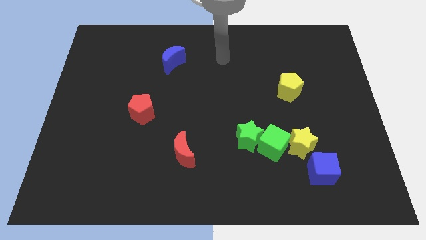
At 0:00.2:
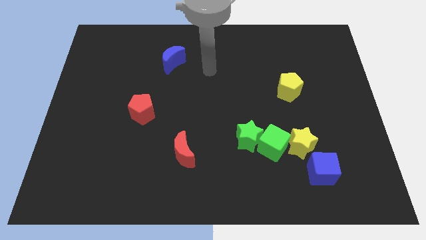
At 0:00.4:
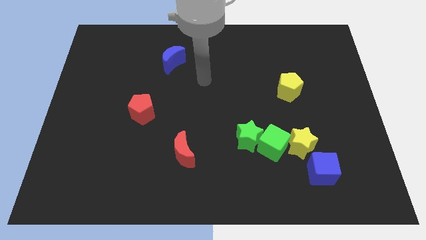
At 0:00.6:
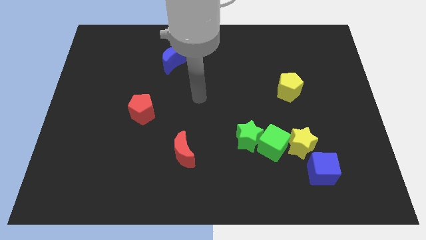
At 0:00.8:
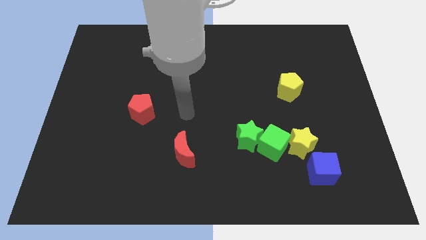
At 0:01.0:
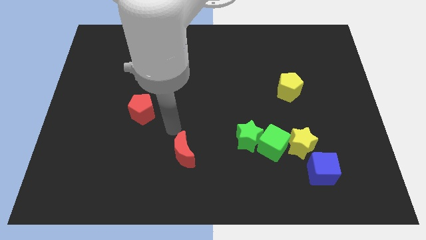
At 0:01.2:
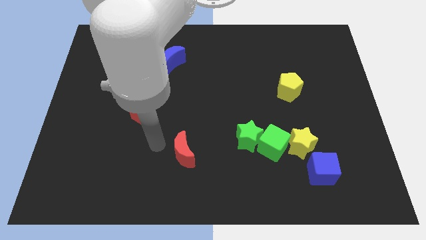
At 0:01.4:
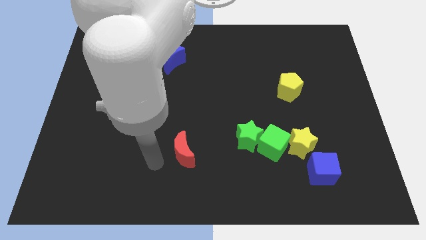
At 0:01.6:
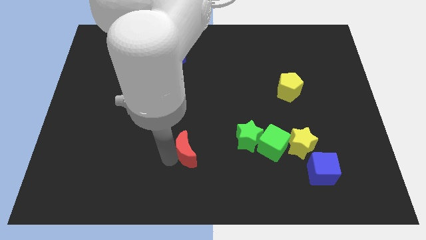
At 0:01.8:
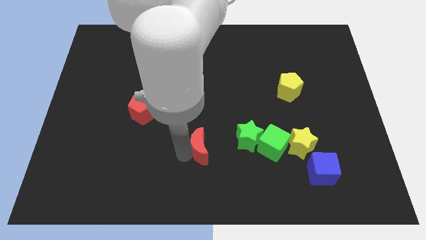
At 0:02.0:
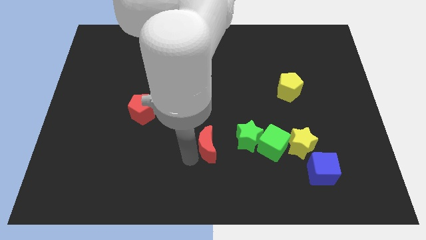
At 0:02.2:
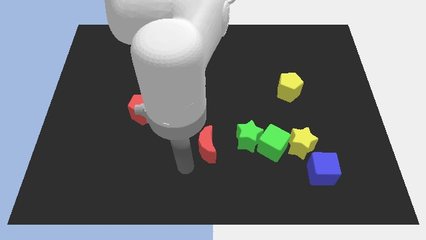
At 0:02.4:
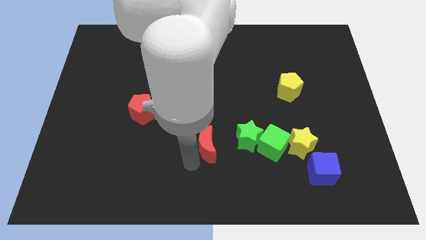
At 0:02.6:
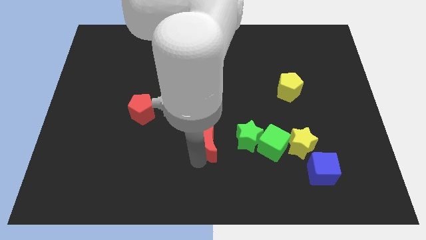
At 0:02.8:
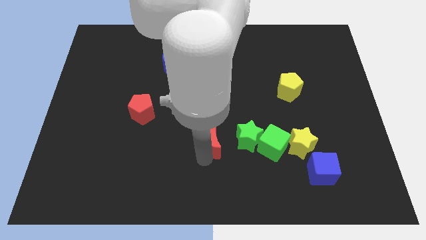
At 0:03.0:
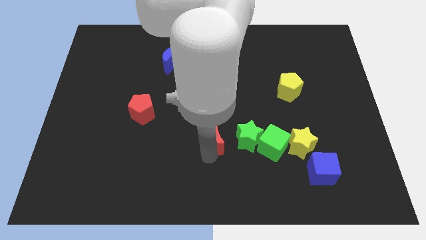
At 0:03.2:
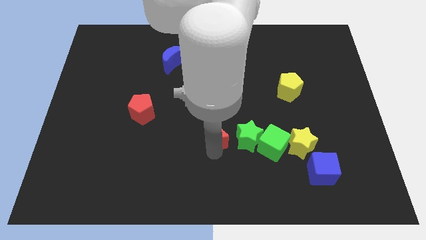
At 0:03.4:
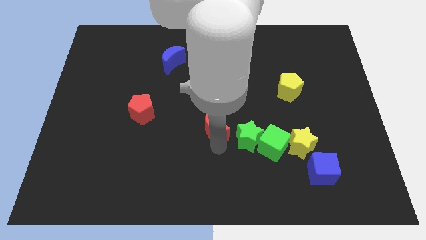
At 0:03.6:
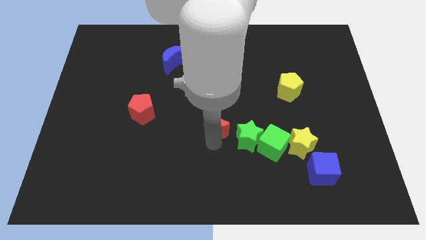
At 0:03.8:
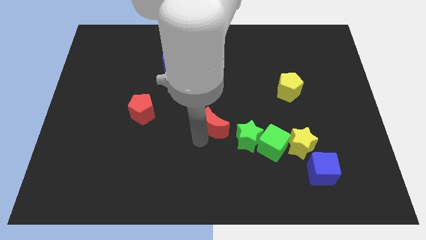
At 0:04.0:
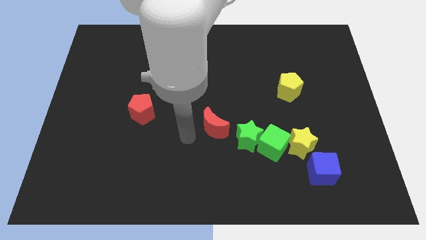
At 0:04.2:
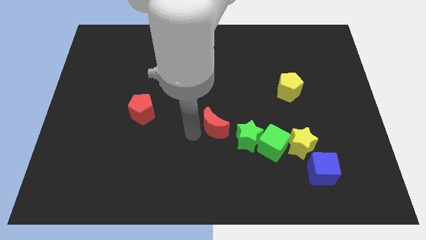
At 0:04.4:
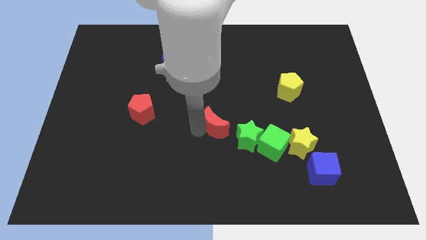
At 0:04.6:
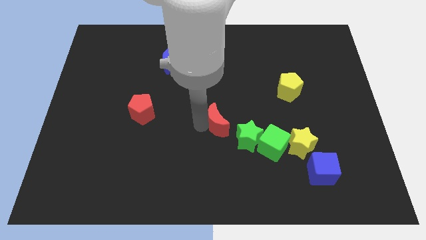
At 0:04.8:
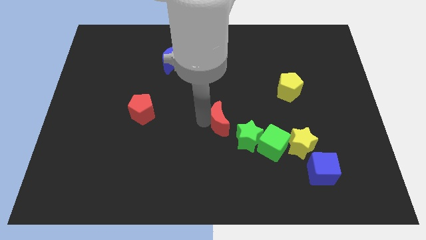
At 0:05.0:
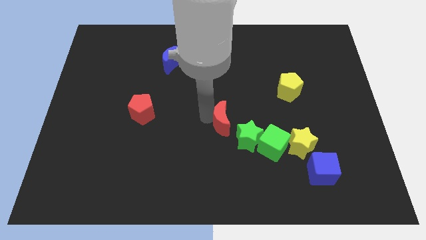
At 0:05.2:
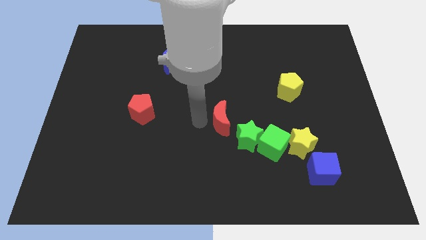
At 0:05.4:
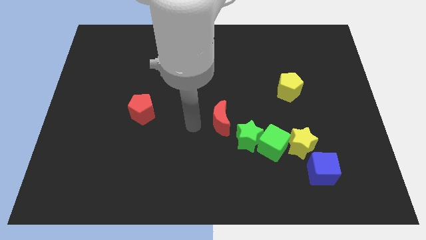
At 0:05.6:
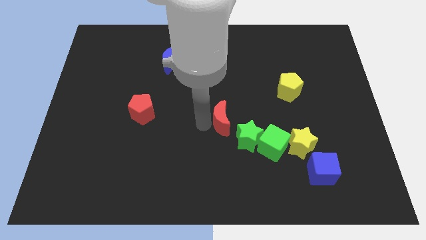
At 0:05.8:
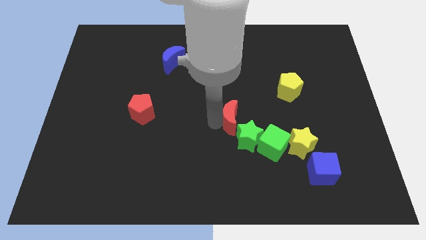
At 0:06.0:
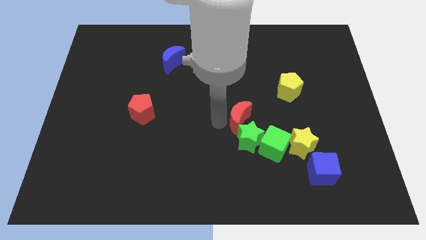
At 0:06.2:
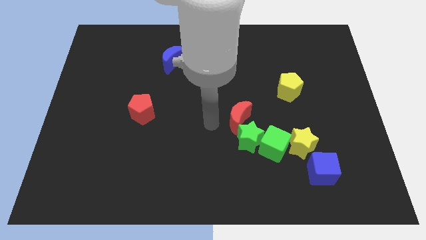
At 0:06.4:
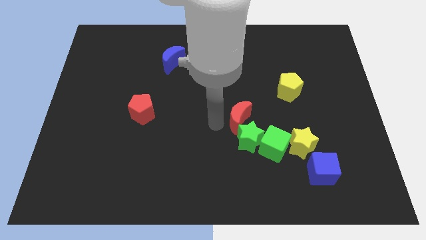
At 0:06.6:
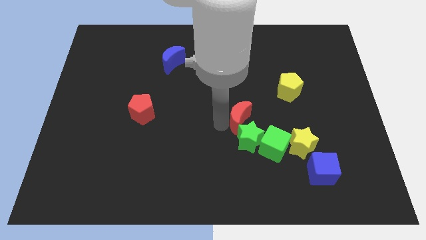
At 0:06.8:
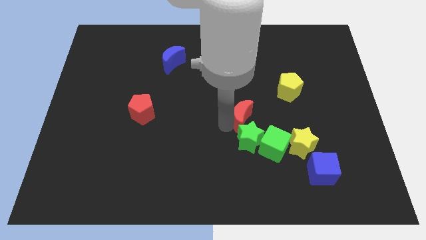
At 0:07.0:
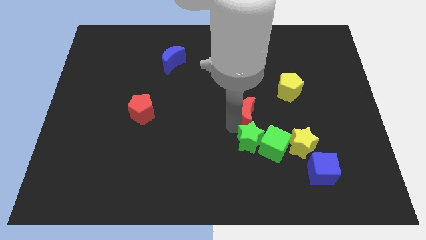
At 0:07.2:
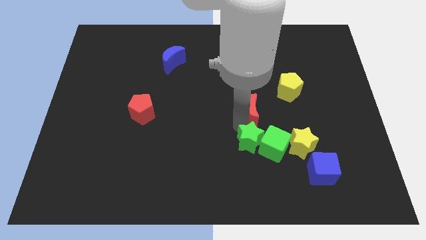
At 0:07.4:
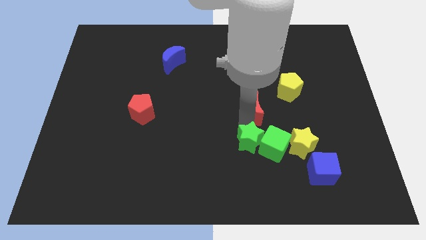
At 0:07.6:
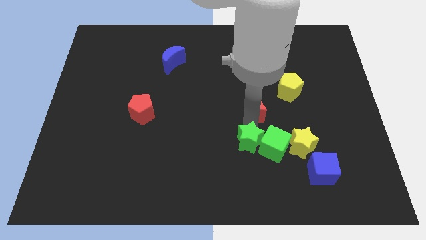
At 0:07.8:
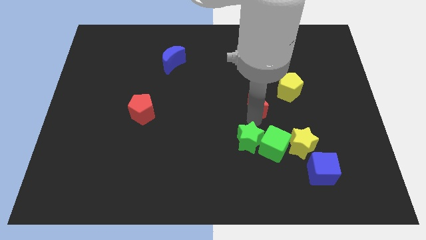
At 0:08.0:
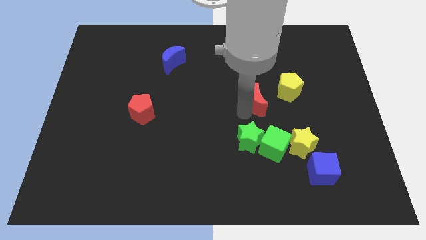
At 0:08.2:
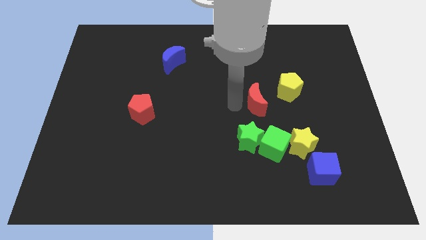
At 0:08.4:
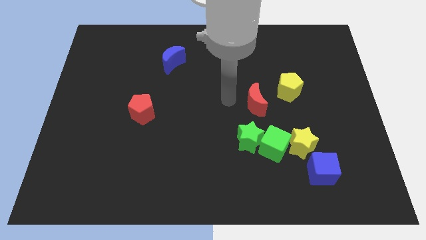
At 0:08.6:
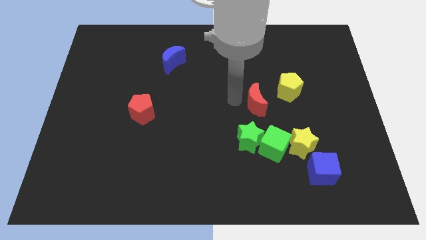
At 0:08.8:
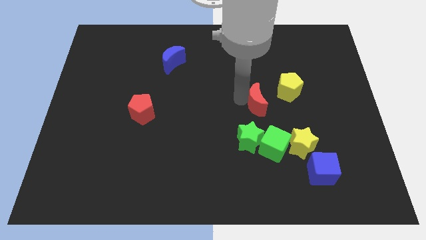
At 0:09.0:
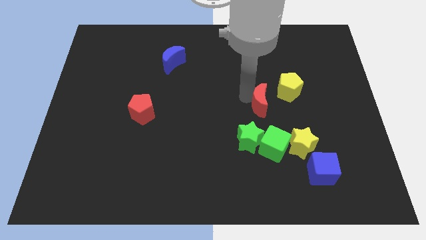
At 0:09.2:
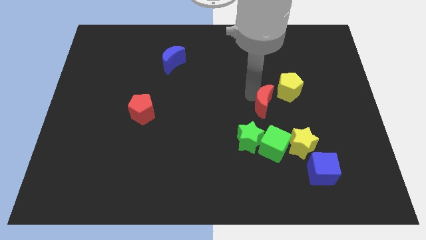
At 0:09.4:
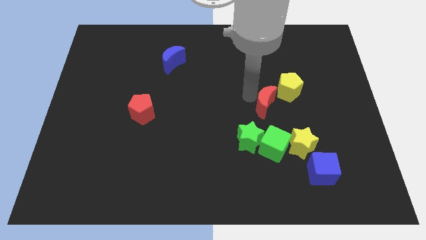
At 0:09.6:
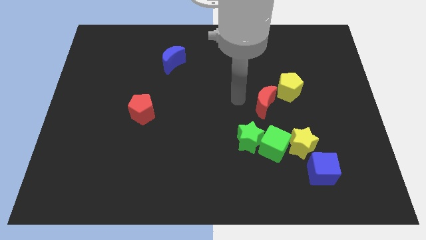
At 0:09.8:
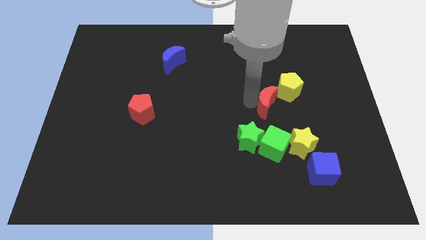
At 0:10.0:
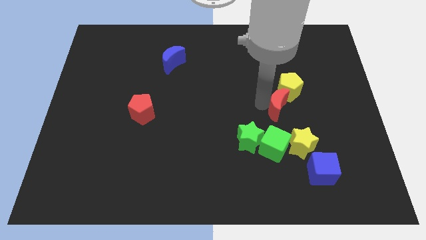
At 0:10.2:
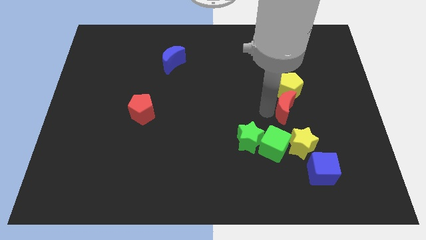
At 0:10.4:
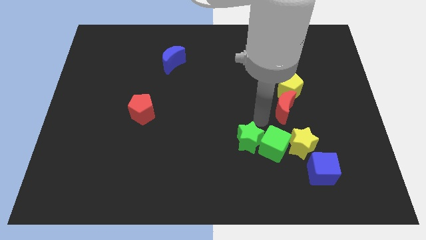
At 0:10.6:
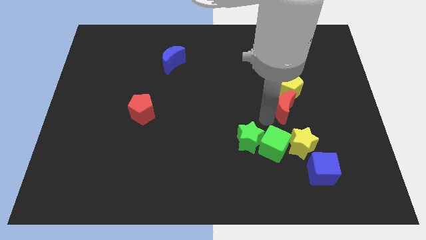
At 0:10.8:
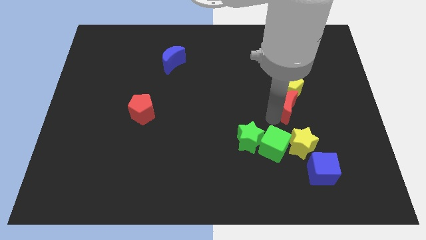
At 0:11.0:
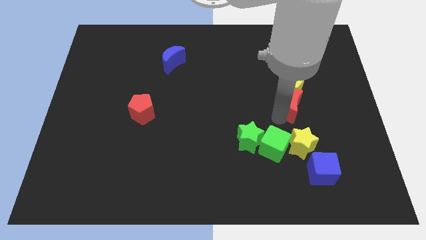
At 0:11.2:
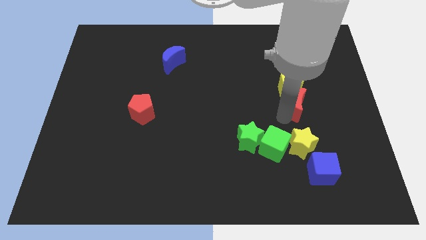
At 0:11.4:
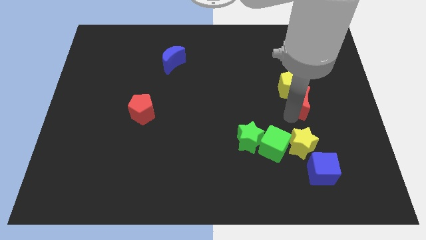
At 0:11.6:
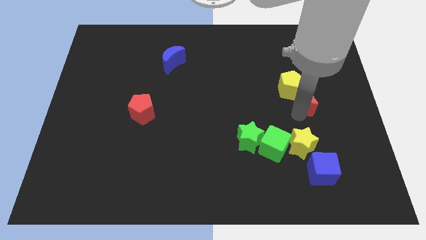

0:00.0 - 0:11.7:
push the red moon to the right side of the yellow pentagon

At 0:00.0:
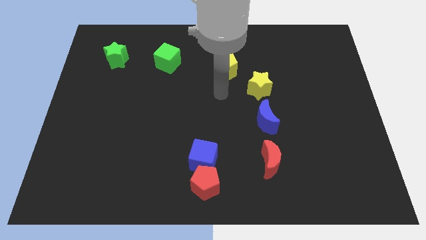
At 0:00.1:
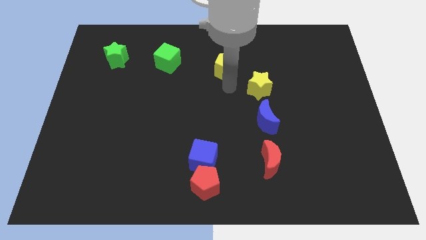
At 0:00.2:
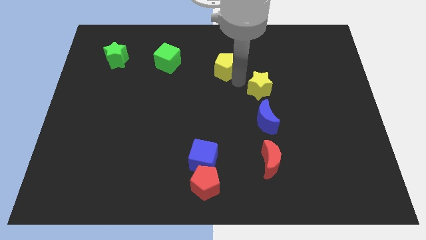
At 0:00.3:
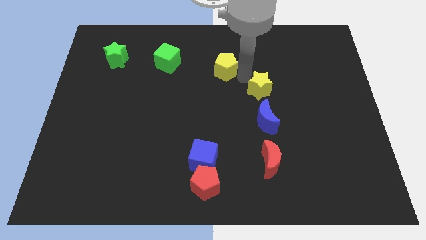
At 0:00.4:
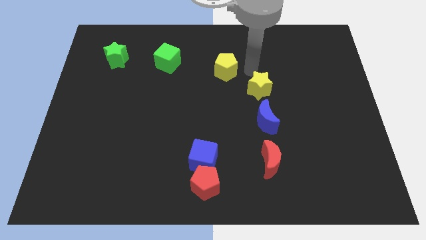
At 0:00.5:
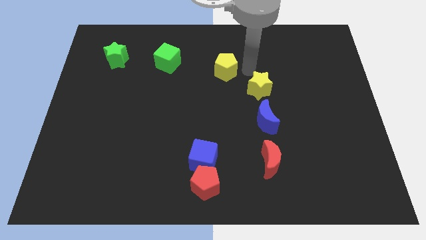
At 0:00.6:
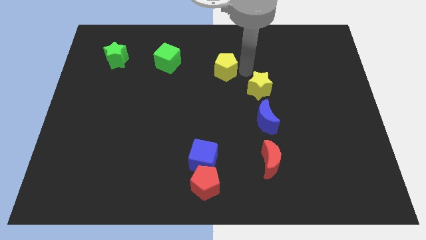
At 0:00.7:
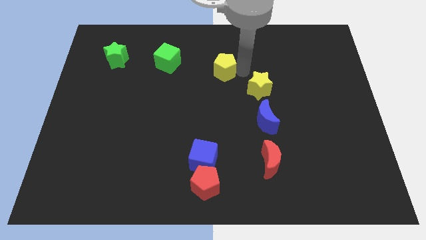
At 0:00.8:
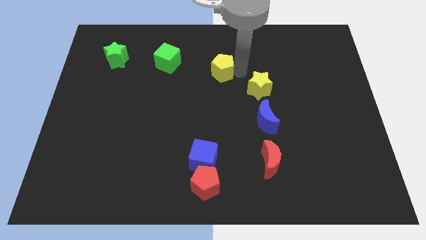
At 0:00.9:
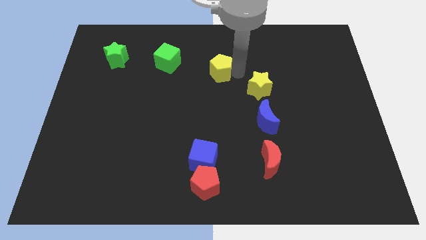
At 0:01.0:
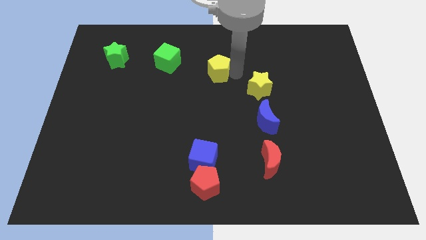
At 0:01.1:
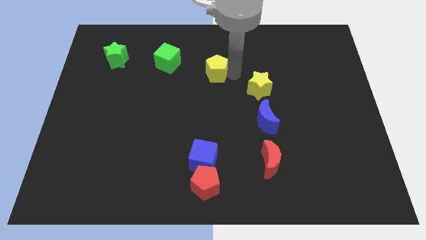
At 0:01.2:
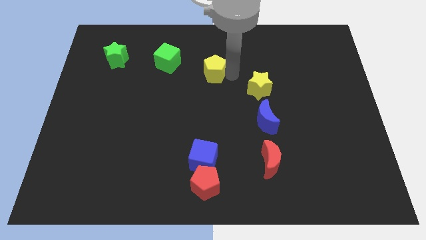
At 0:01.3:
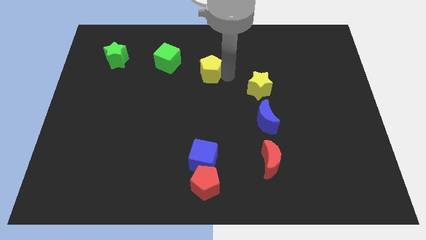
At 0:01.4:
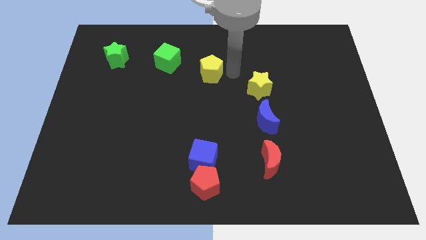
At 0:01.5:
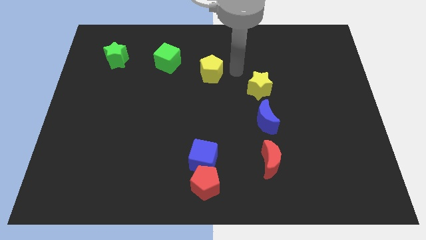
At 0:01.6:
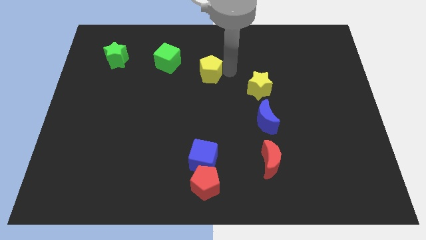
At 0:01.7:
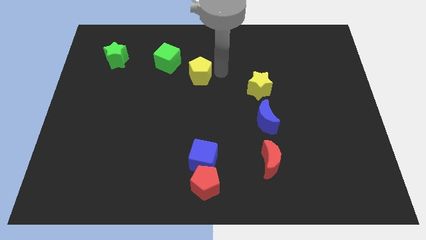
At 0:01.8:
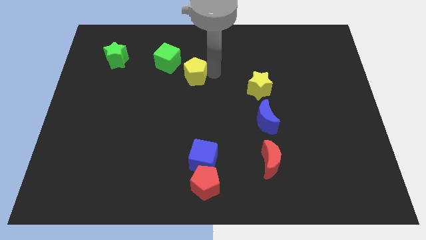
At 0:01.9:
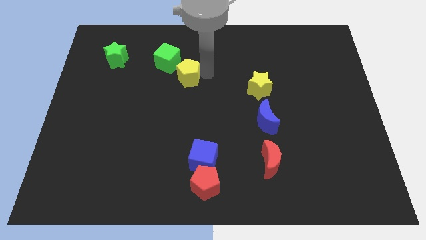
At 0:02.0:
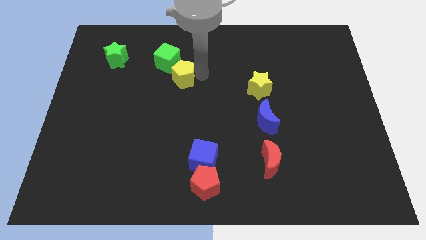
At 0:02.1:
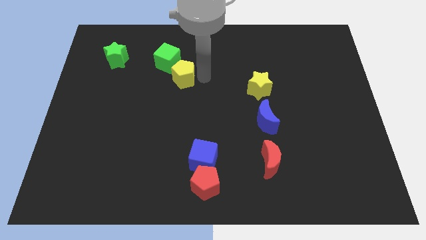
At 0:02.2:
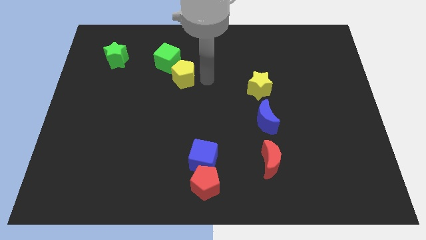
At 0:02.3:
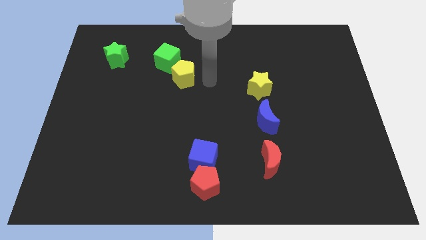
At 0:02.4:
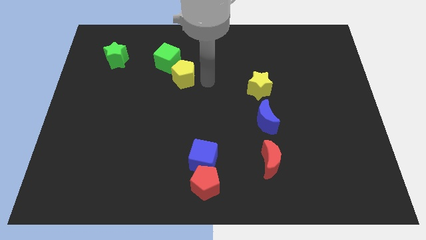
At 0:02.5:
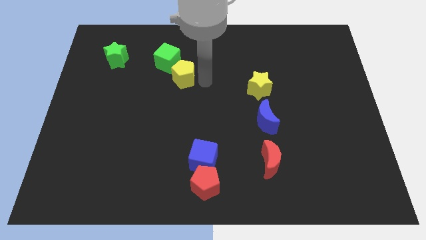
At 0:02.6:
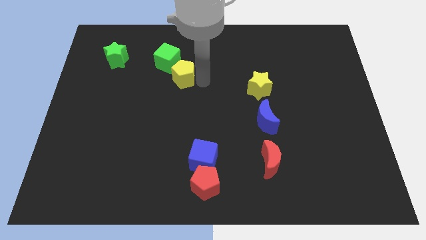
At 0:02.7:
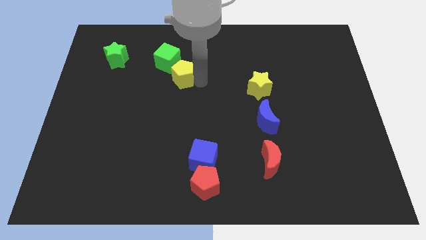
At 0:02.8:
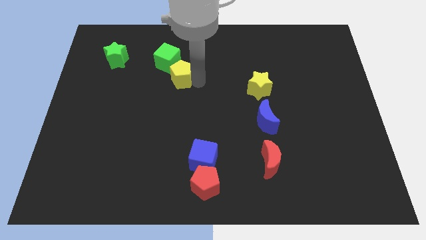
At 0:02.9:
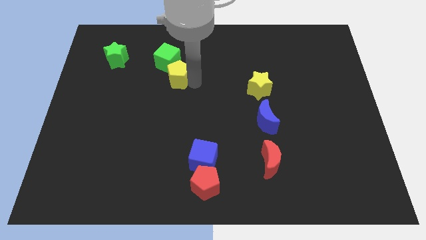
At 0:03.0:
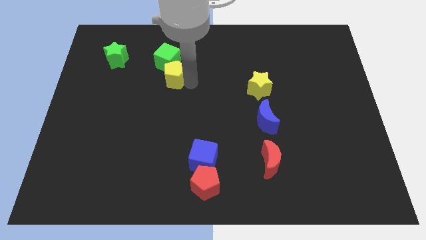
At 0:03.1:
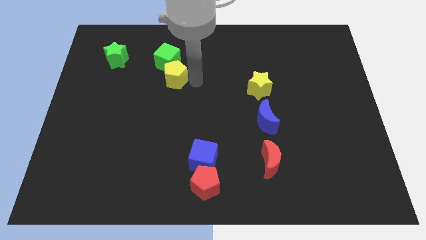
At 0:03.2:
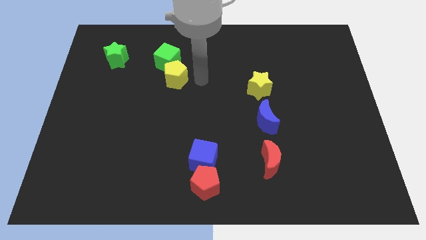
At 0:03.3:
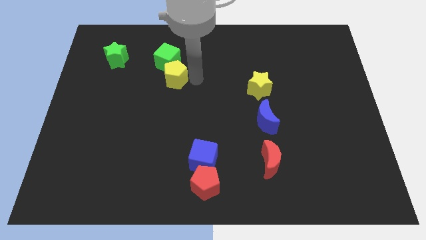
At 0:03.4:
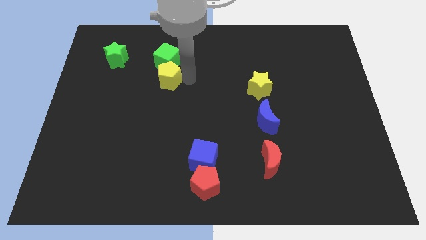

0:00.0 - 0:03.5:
put the yellow pentagon to the bottom left of the green cube
